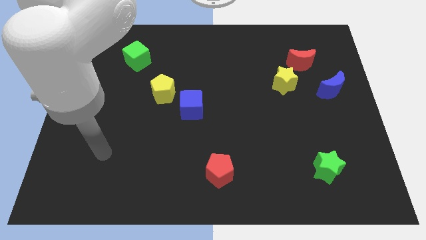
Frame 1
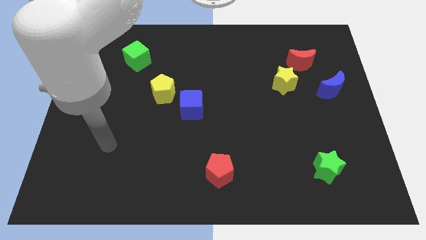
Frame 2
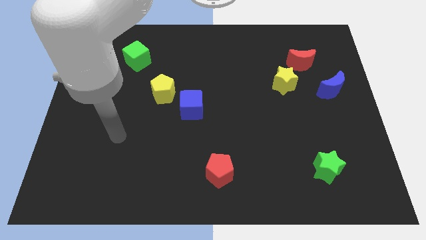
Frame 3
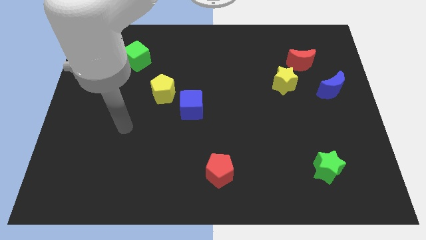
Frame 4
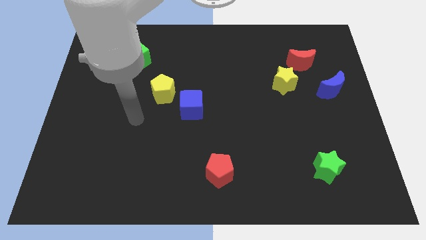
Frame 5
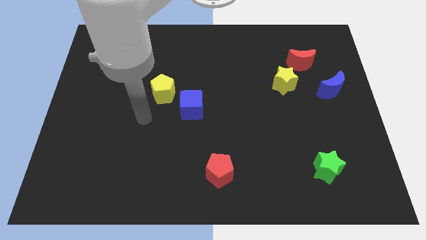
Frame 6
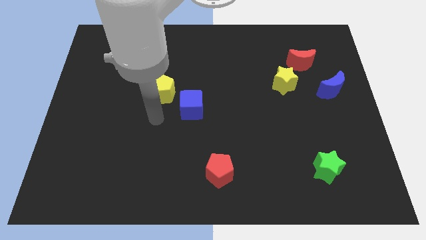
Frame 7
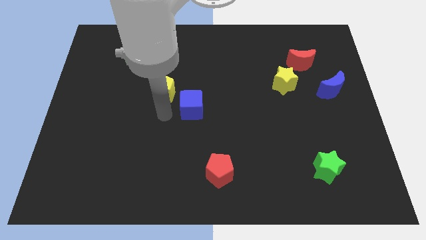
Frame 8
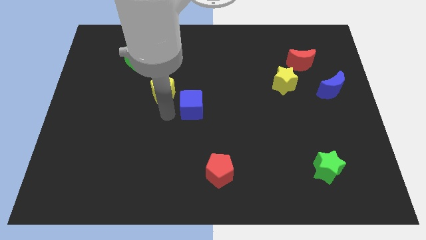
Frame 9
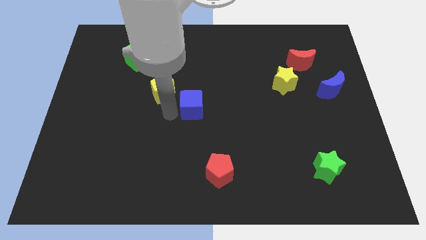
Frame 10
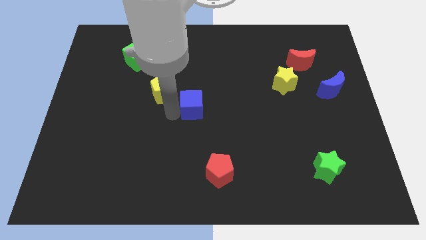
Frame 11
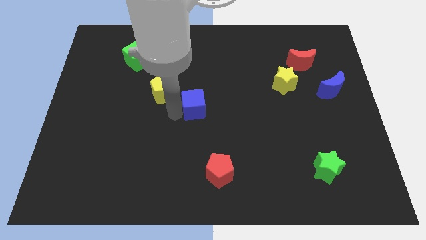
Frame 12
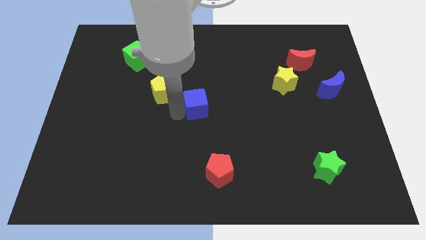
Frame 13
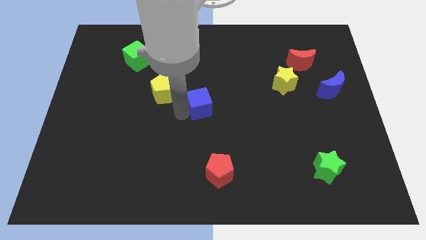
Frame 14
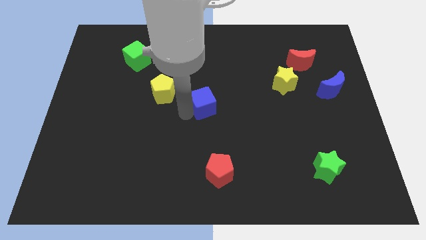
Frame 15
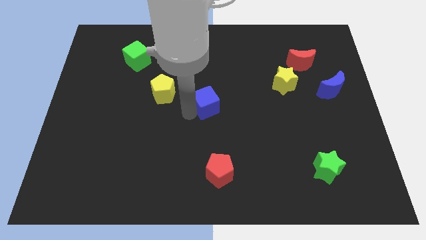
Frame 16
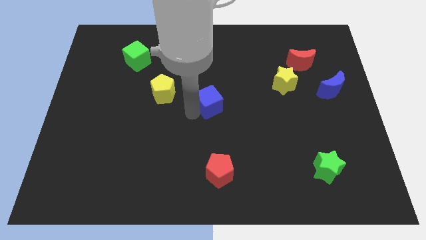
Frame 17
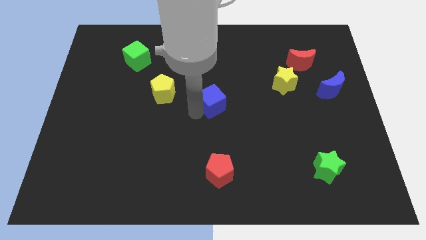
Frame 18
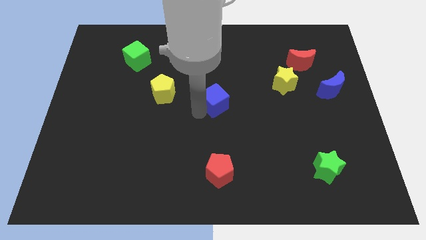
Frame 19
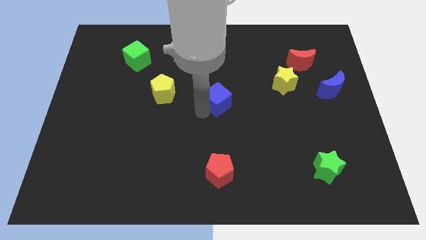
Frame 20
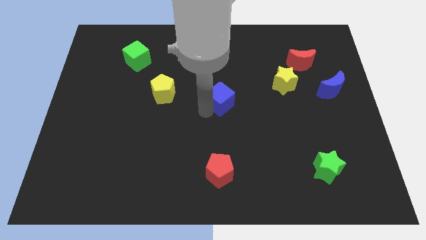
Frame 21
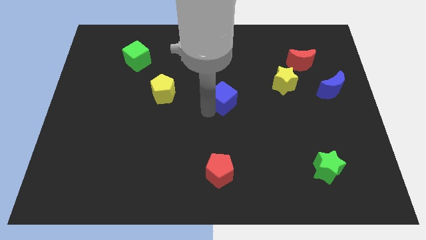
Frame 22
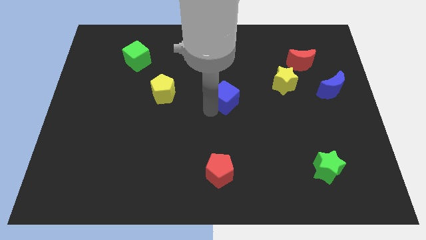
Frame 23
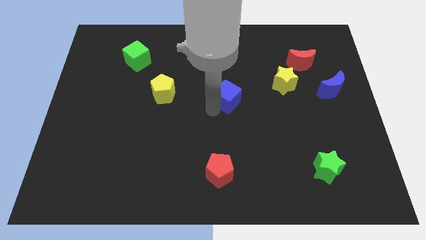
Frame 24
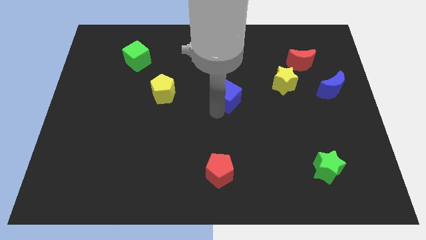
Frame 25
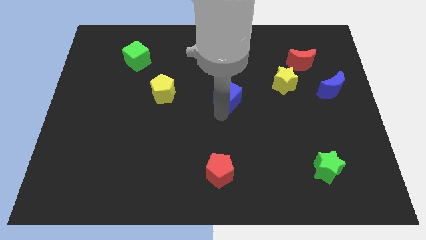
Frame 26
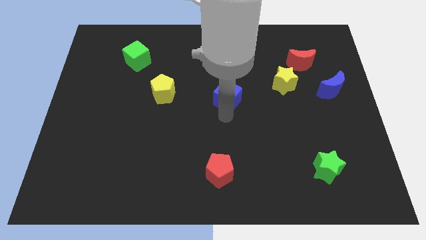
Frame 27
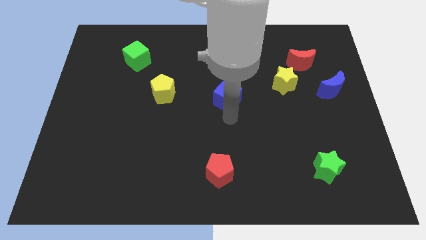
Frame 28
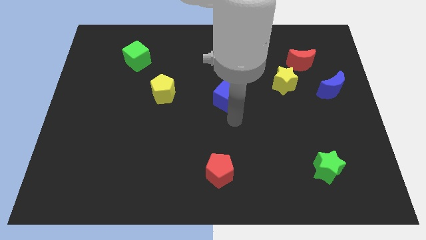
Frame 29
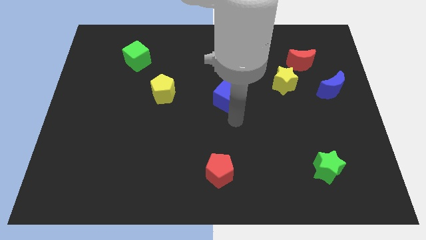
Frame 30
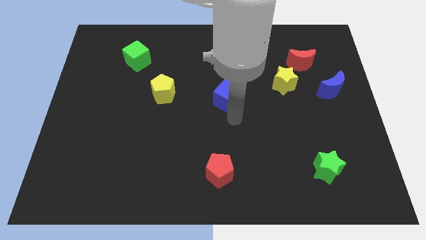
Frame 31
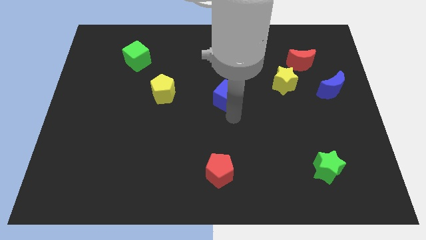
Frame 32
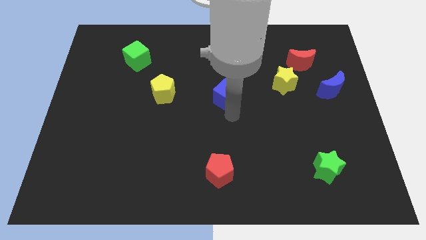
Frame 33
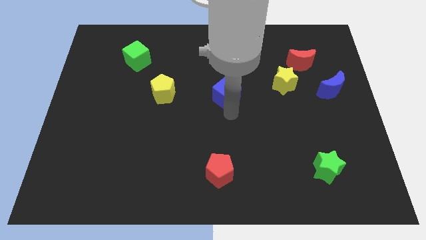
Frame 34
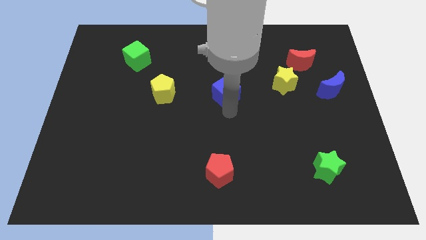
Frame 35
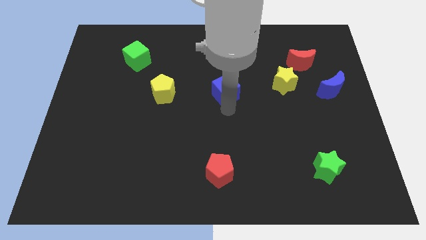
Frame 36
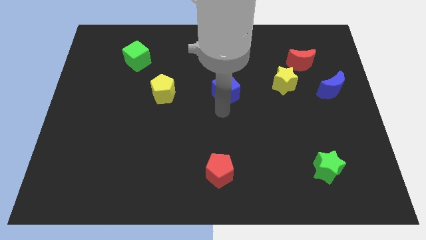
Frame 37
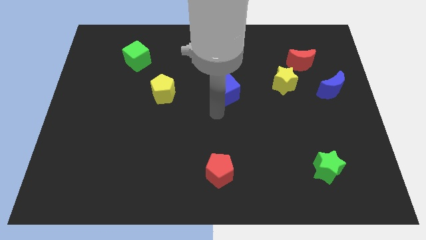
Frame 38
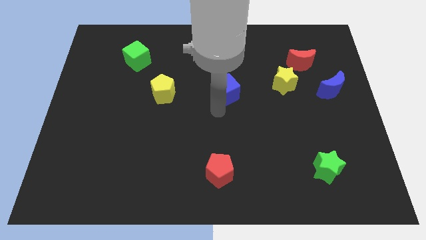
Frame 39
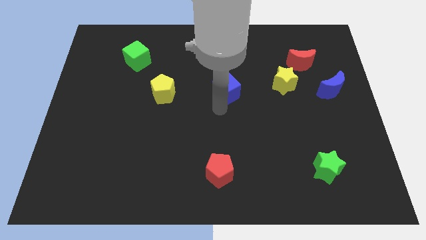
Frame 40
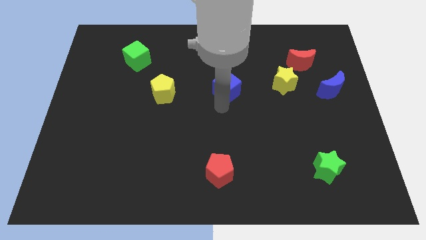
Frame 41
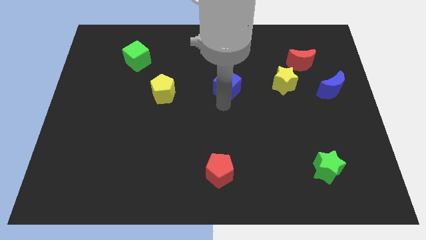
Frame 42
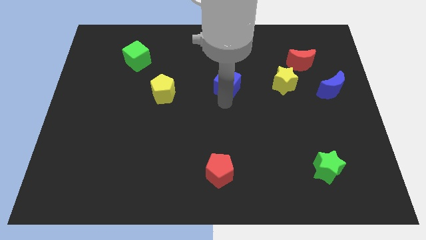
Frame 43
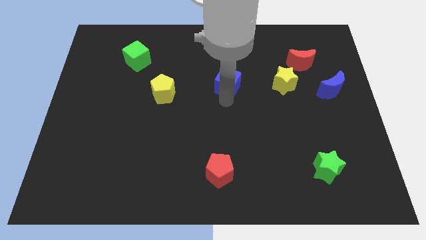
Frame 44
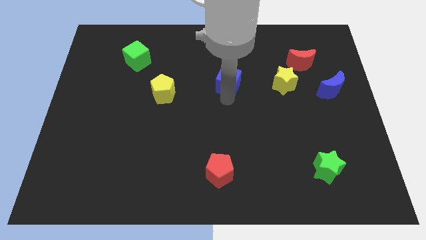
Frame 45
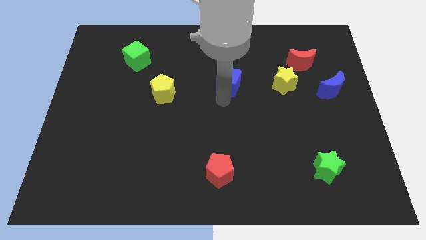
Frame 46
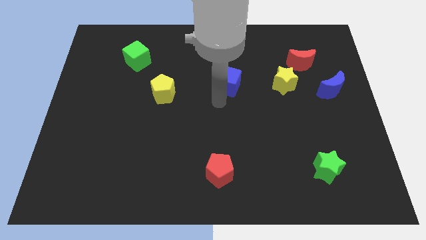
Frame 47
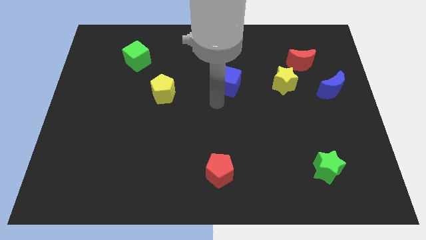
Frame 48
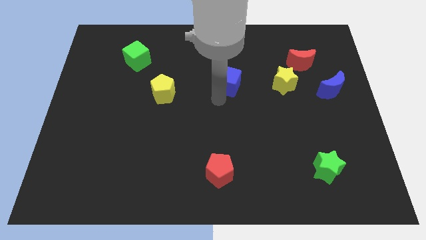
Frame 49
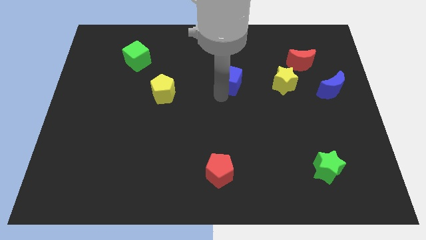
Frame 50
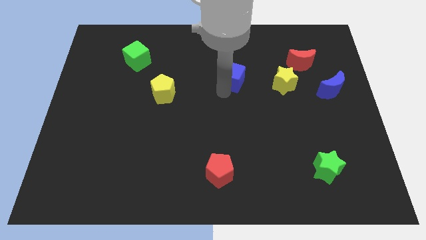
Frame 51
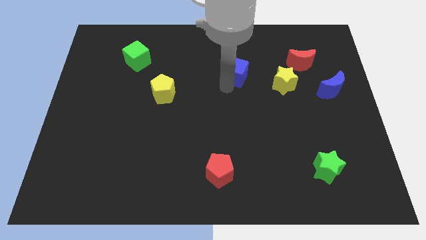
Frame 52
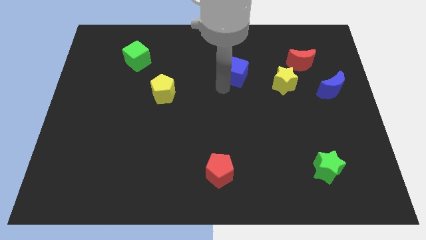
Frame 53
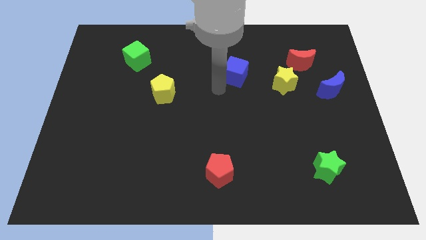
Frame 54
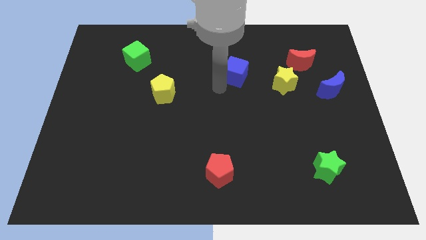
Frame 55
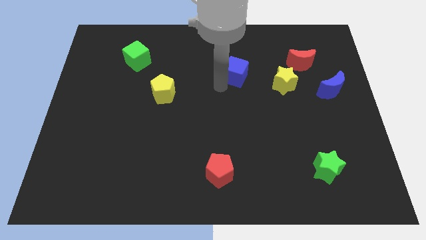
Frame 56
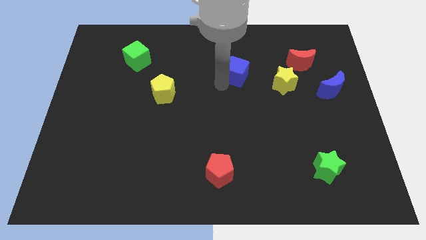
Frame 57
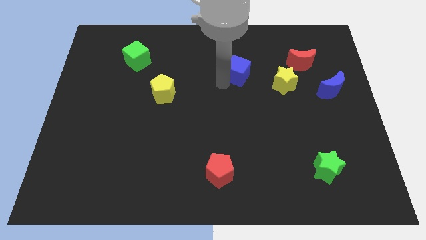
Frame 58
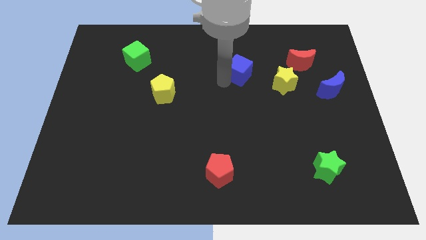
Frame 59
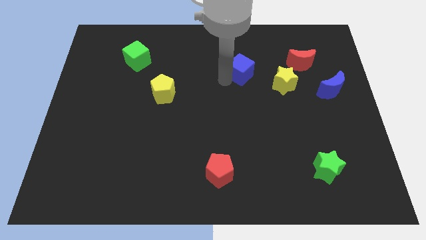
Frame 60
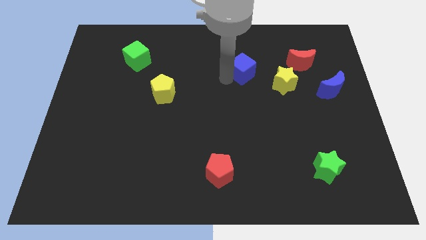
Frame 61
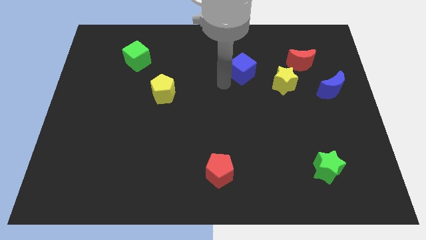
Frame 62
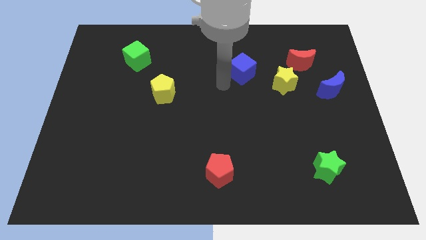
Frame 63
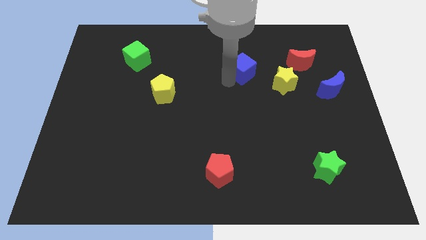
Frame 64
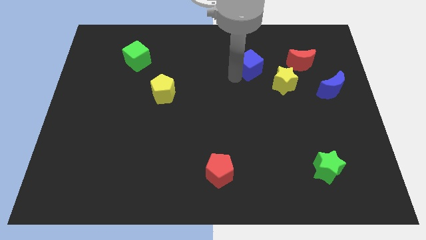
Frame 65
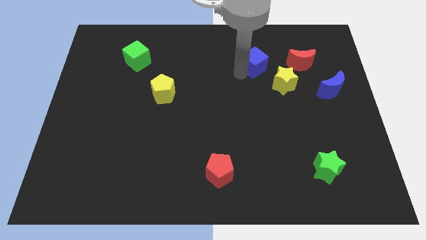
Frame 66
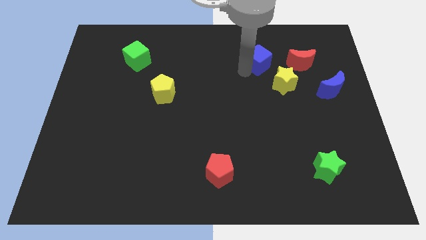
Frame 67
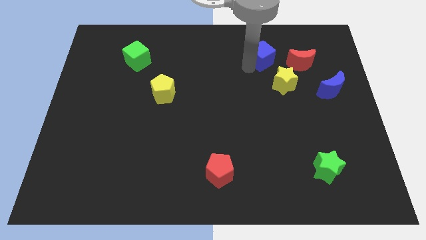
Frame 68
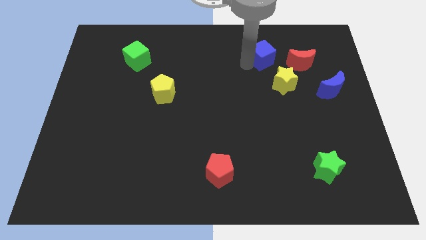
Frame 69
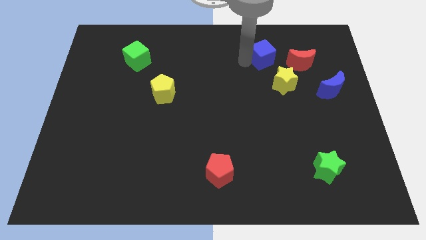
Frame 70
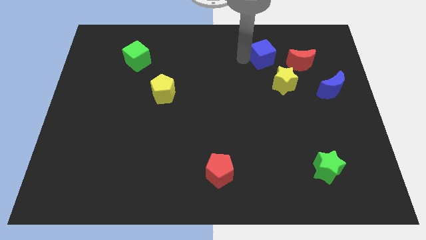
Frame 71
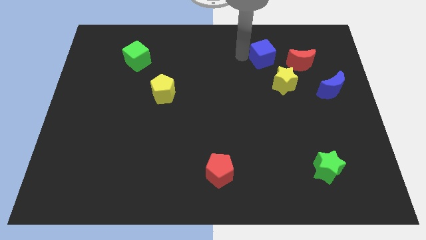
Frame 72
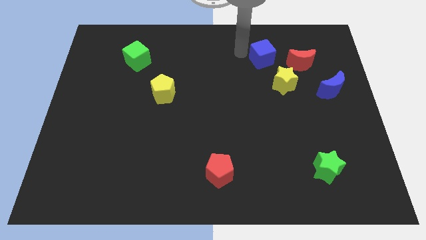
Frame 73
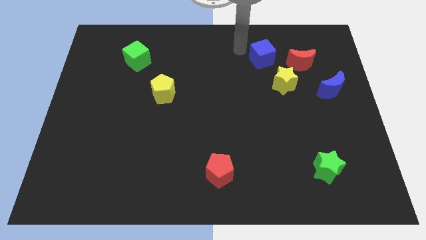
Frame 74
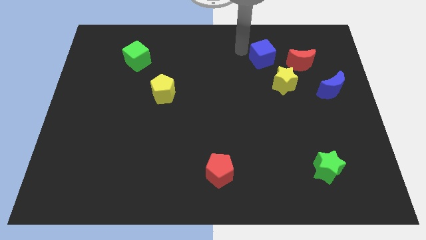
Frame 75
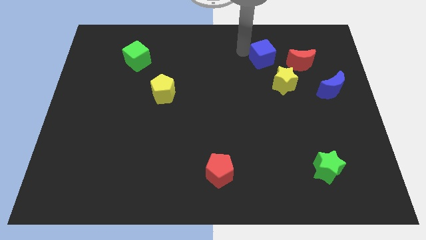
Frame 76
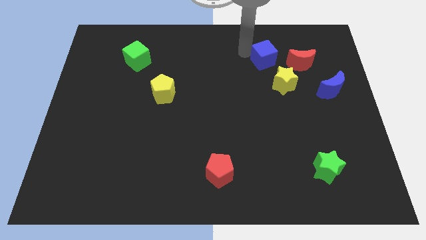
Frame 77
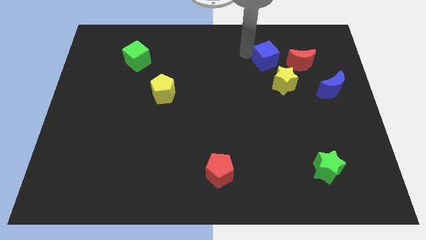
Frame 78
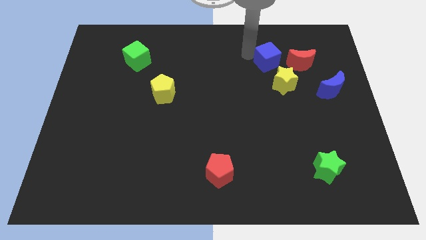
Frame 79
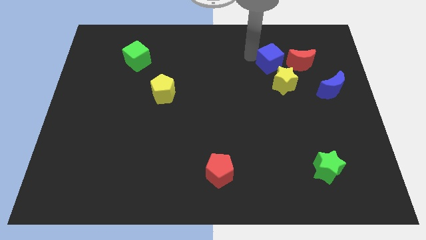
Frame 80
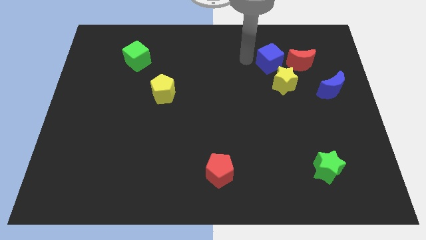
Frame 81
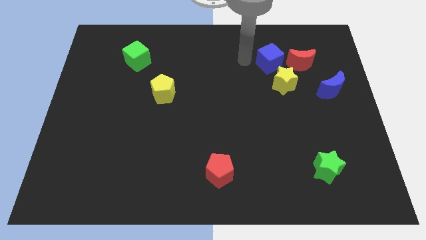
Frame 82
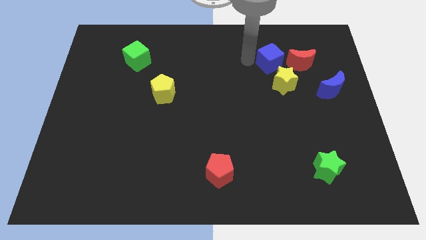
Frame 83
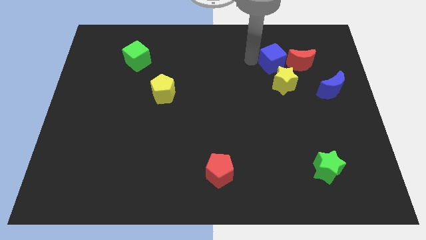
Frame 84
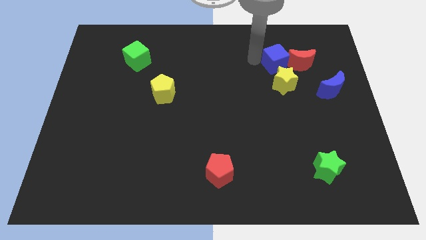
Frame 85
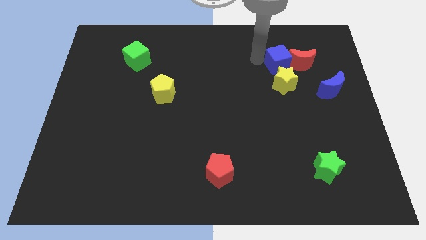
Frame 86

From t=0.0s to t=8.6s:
push the blue cube close to the red moon
